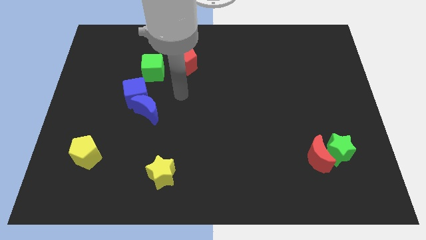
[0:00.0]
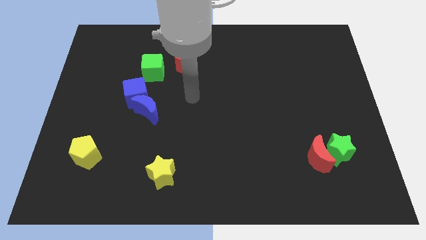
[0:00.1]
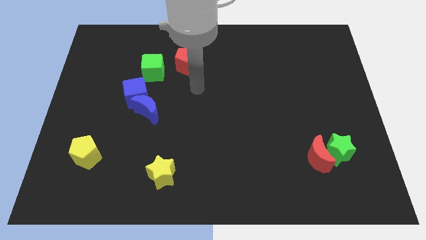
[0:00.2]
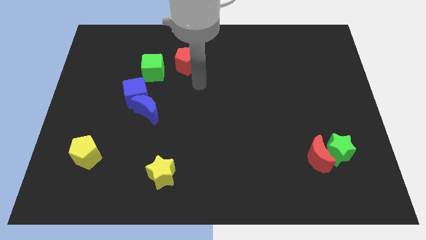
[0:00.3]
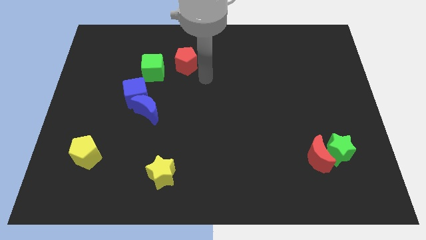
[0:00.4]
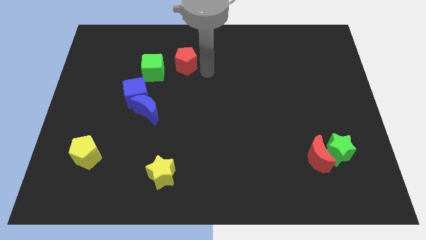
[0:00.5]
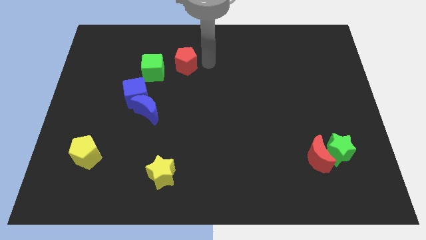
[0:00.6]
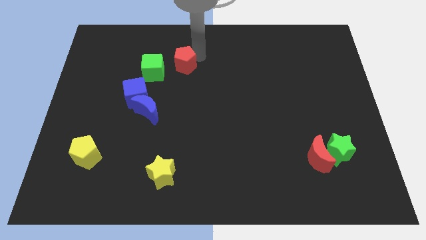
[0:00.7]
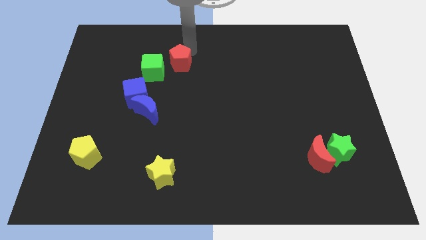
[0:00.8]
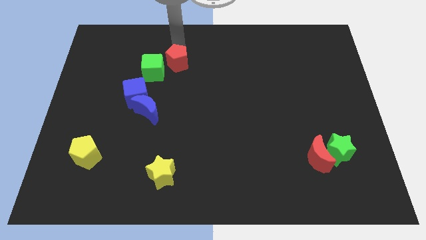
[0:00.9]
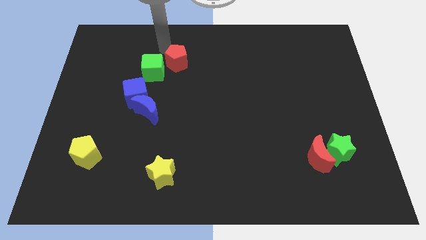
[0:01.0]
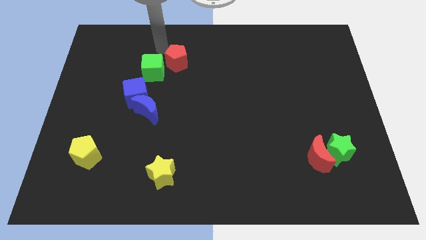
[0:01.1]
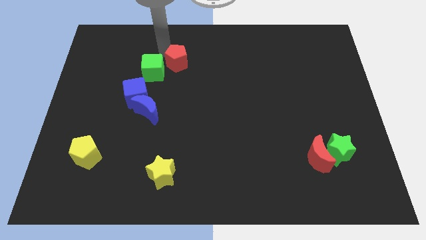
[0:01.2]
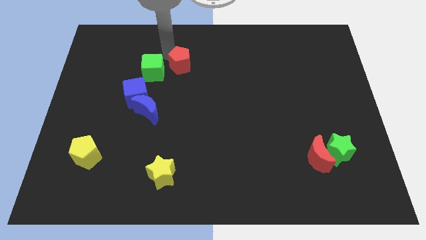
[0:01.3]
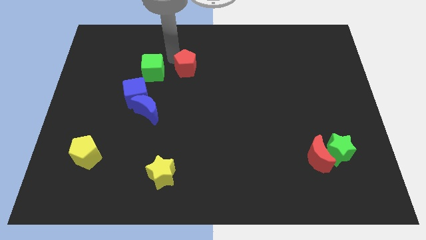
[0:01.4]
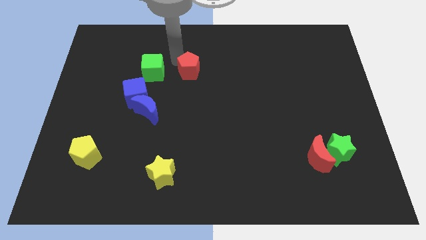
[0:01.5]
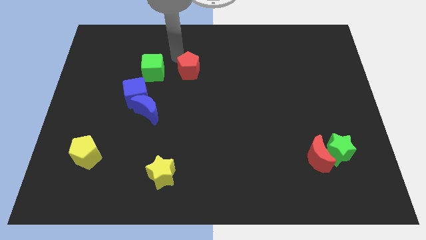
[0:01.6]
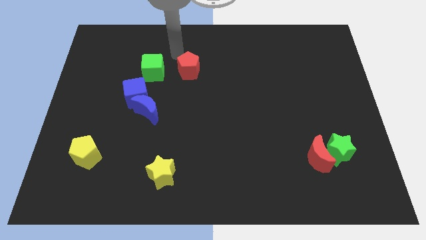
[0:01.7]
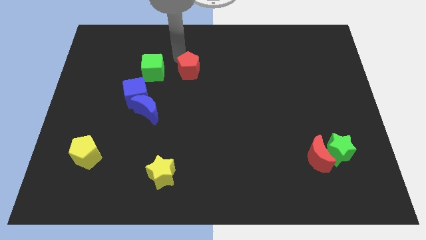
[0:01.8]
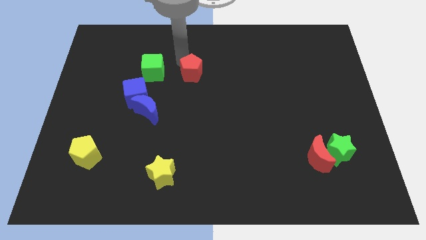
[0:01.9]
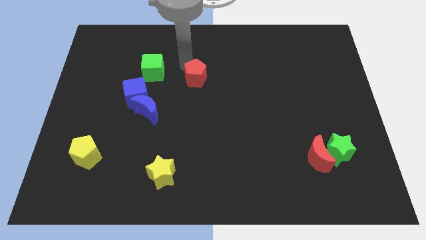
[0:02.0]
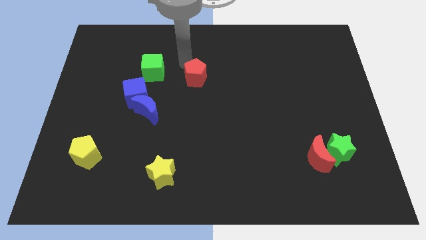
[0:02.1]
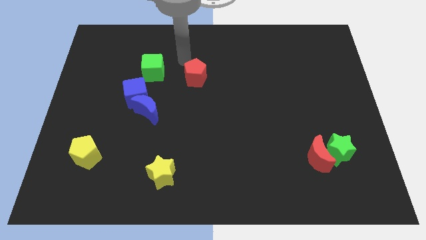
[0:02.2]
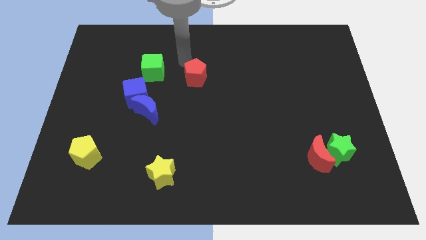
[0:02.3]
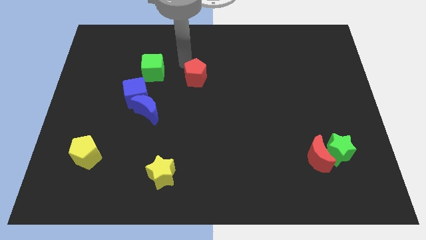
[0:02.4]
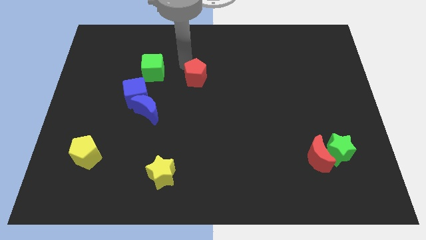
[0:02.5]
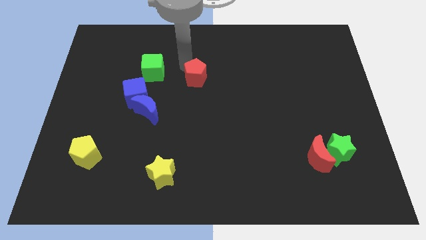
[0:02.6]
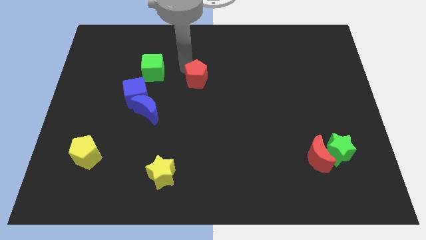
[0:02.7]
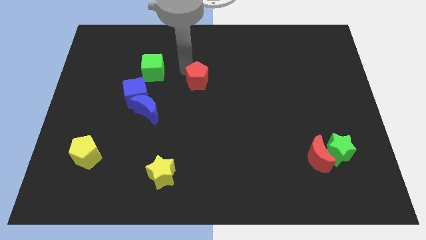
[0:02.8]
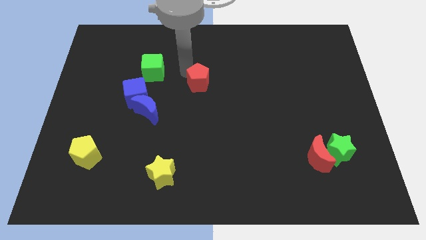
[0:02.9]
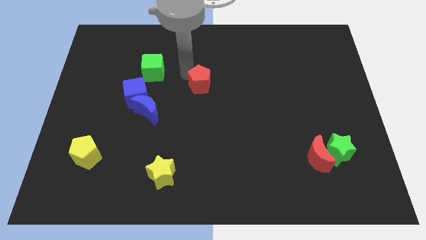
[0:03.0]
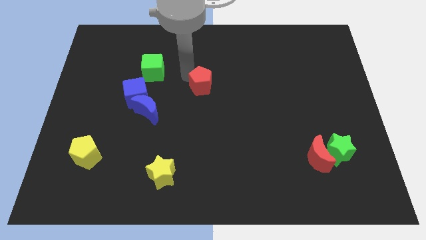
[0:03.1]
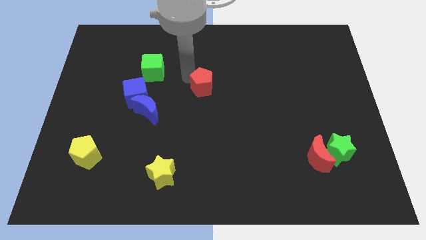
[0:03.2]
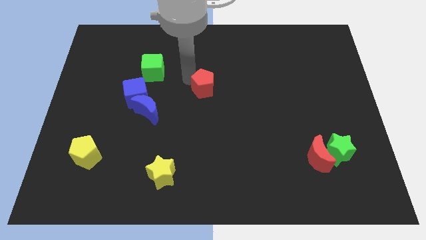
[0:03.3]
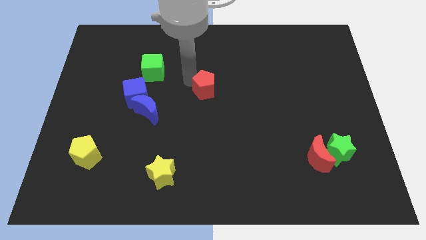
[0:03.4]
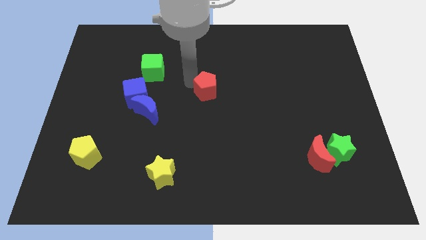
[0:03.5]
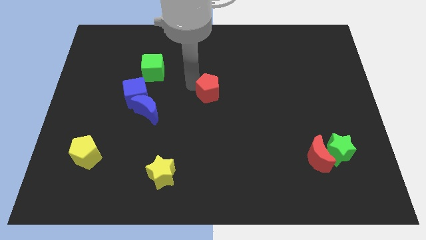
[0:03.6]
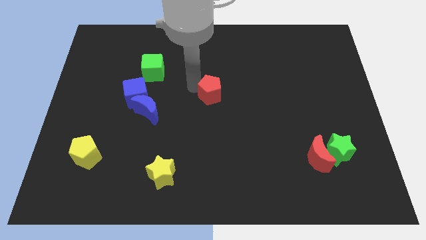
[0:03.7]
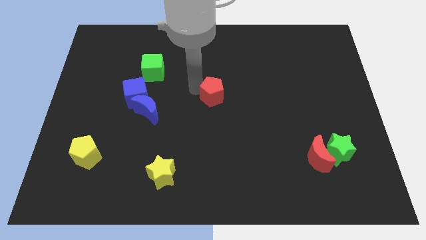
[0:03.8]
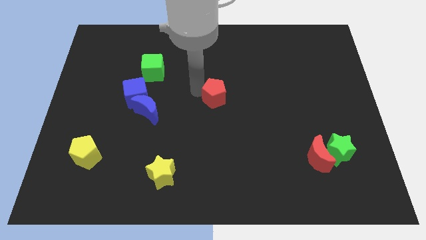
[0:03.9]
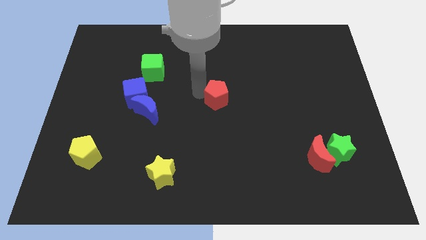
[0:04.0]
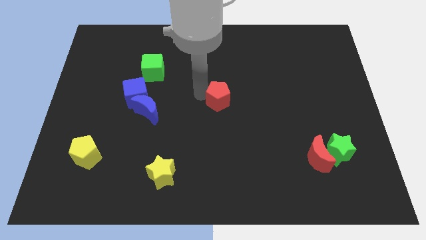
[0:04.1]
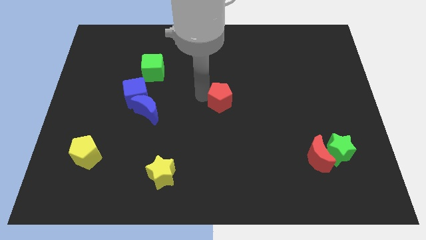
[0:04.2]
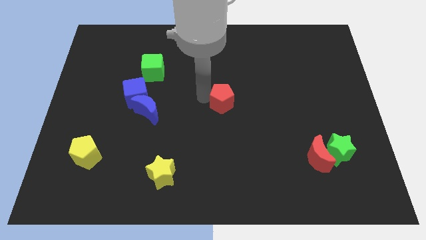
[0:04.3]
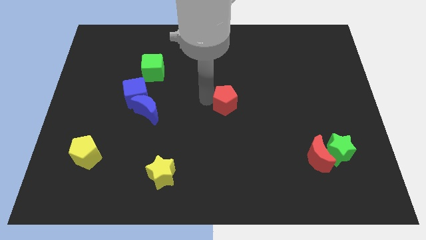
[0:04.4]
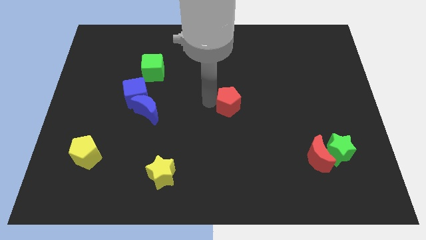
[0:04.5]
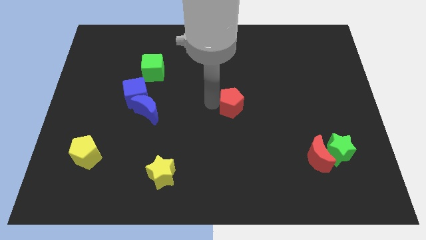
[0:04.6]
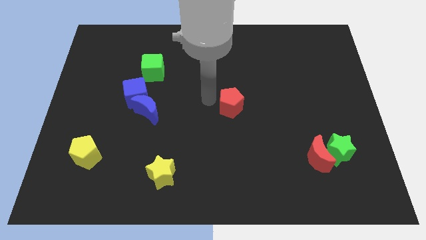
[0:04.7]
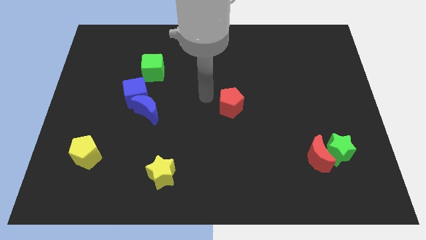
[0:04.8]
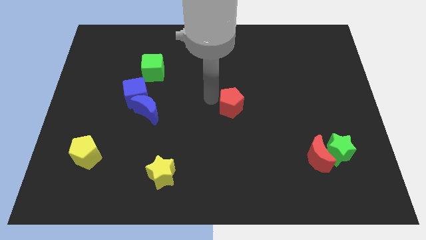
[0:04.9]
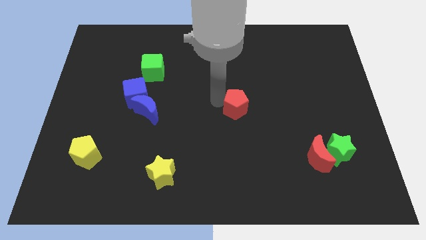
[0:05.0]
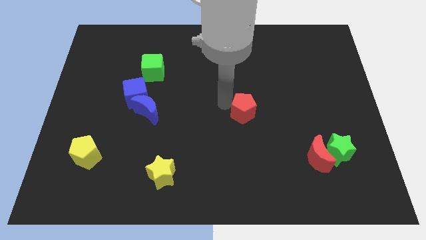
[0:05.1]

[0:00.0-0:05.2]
move the red pentagon downwards and right

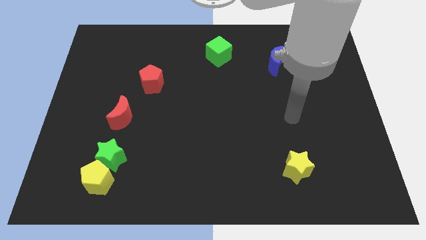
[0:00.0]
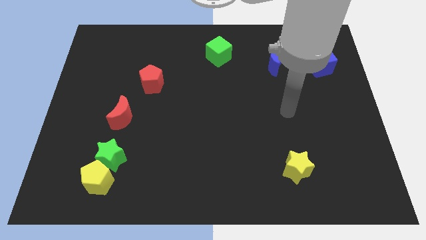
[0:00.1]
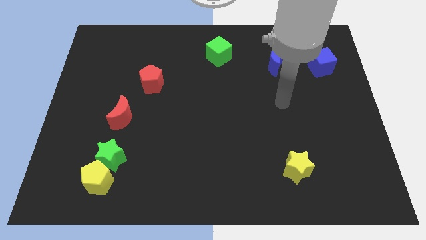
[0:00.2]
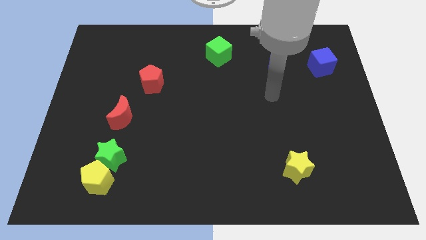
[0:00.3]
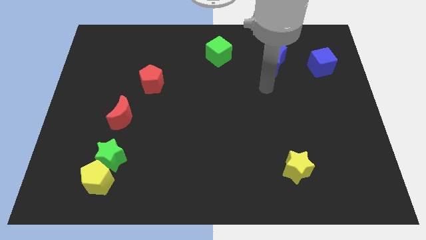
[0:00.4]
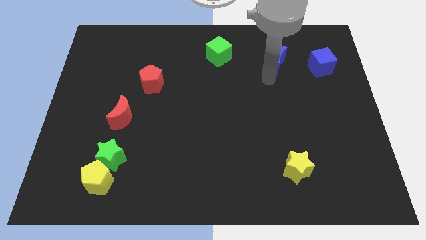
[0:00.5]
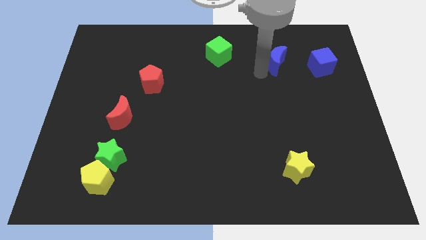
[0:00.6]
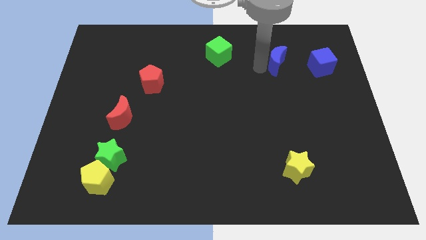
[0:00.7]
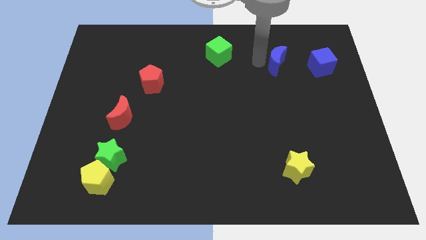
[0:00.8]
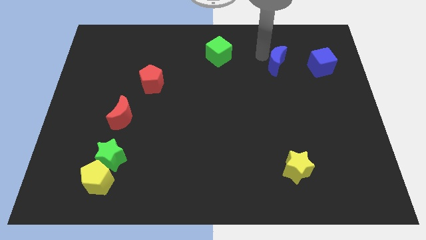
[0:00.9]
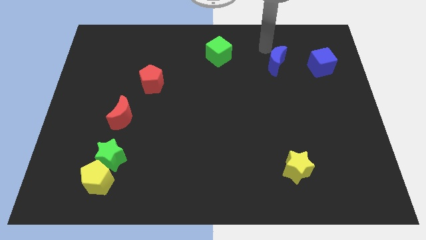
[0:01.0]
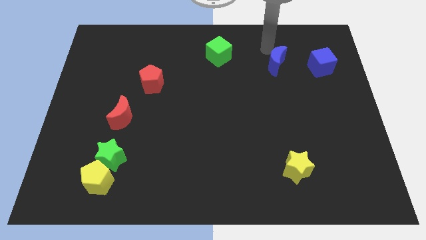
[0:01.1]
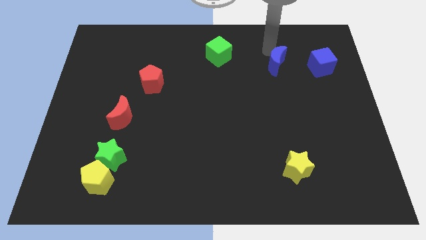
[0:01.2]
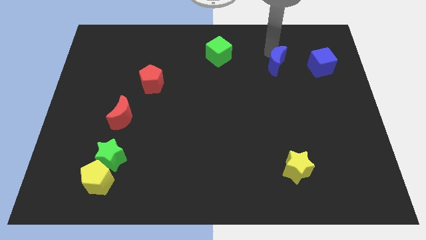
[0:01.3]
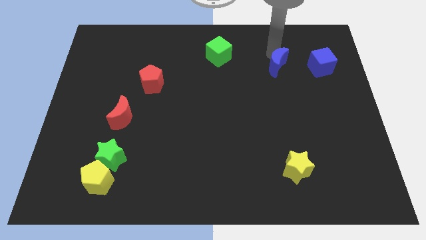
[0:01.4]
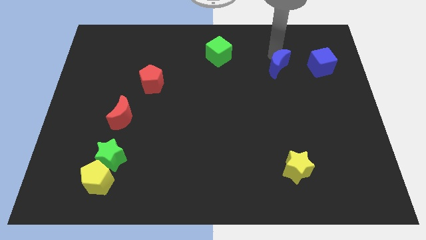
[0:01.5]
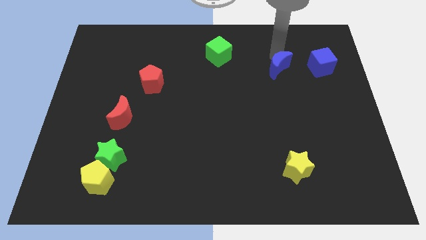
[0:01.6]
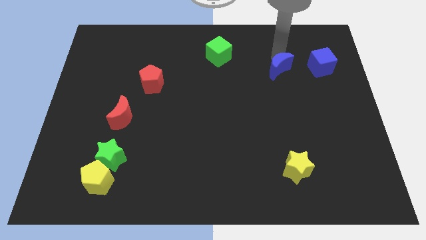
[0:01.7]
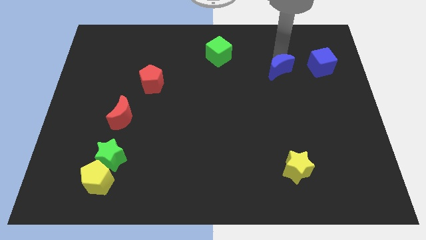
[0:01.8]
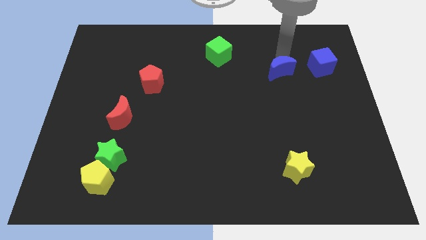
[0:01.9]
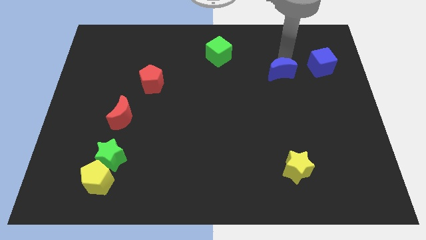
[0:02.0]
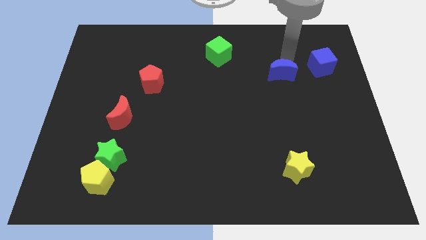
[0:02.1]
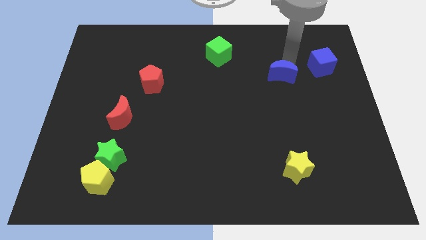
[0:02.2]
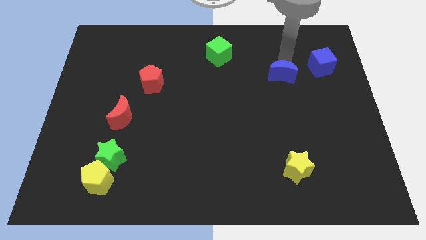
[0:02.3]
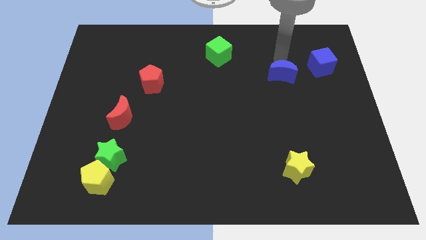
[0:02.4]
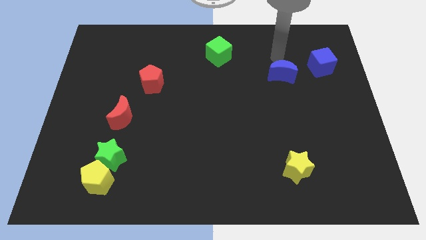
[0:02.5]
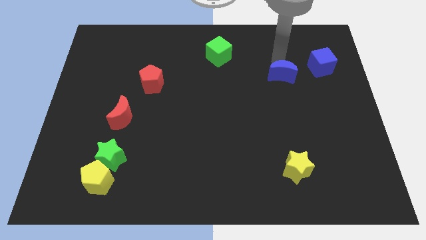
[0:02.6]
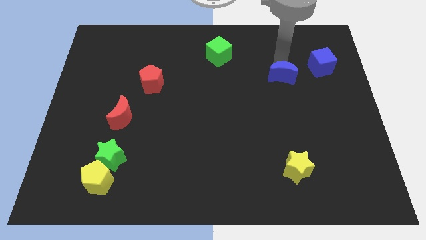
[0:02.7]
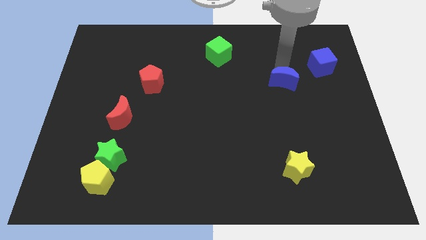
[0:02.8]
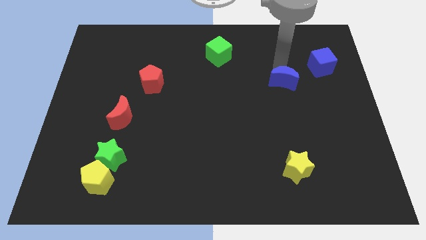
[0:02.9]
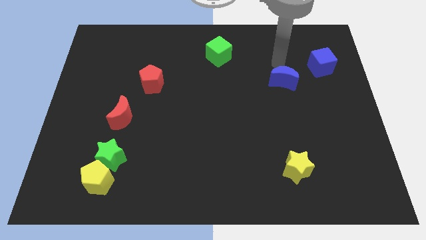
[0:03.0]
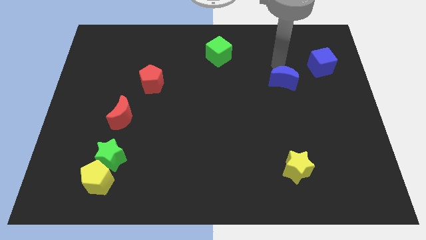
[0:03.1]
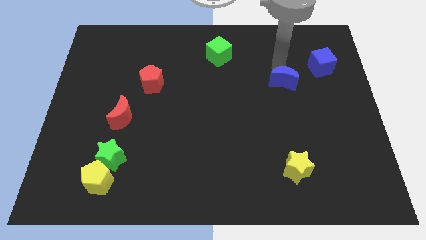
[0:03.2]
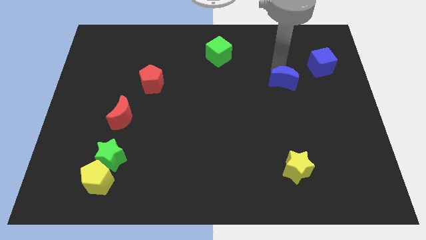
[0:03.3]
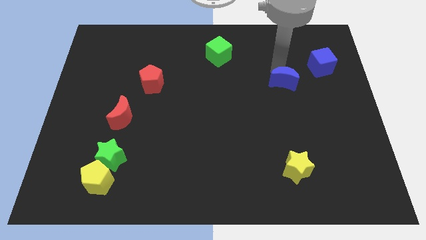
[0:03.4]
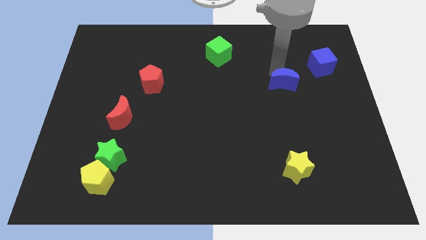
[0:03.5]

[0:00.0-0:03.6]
move the blue moon somewhat downwards
